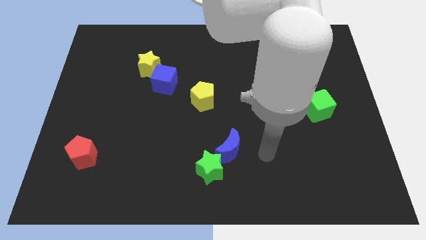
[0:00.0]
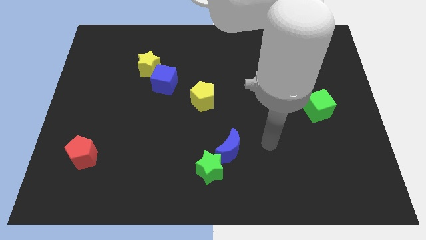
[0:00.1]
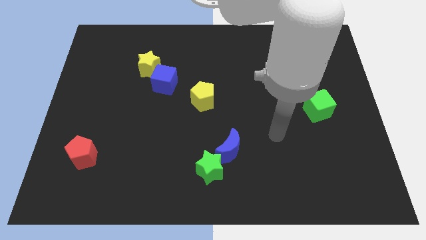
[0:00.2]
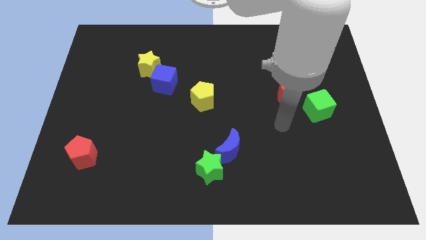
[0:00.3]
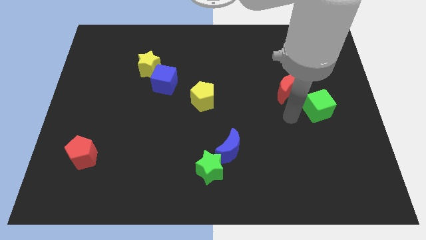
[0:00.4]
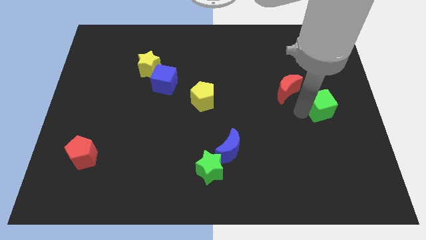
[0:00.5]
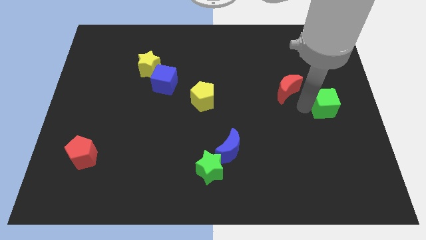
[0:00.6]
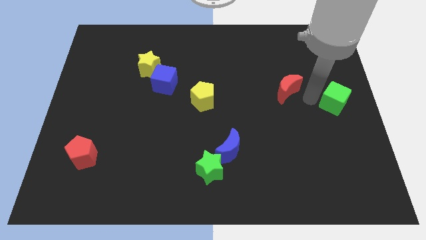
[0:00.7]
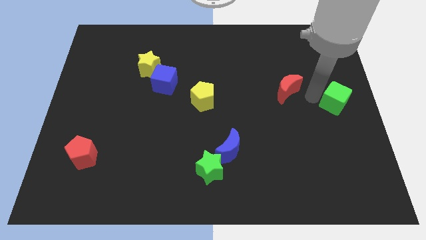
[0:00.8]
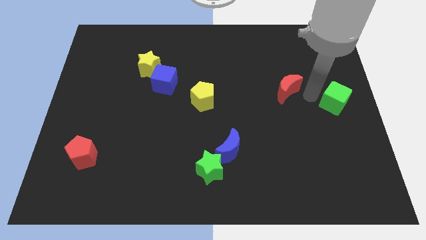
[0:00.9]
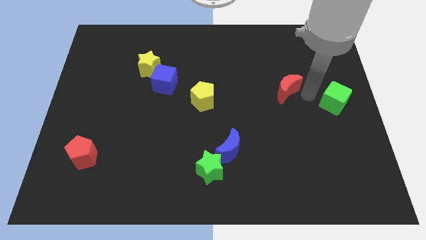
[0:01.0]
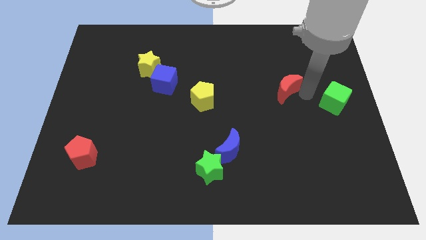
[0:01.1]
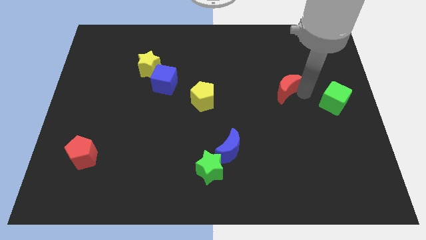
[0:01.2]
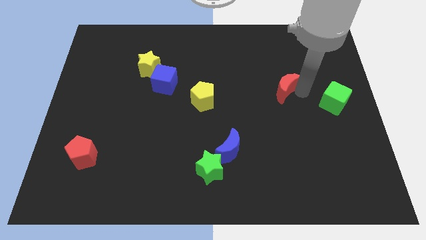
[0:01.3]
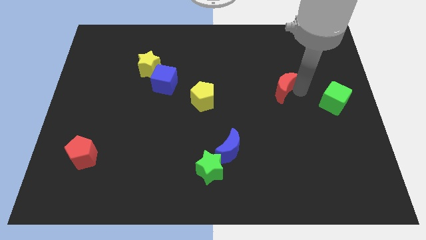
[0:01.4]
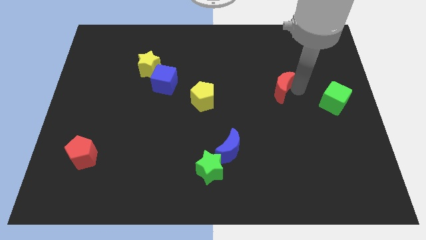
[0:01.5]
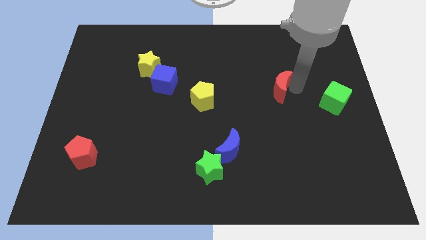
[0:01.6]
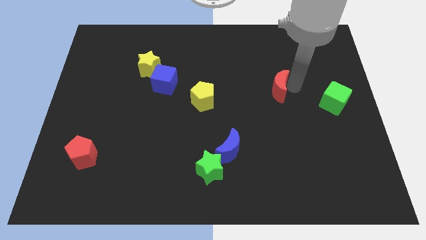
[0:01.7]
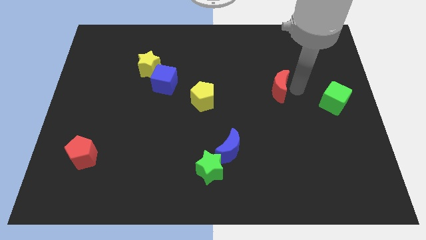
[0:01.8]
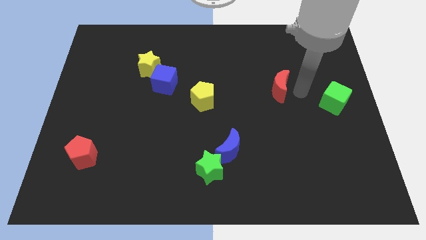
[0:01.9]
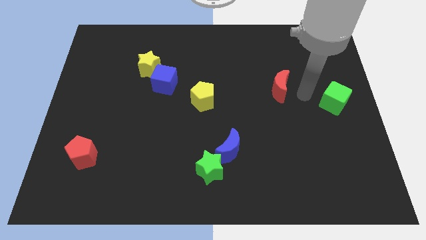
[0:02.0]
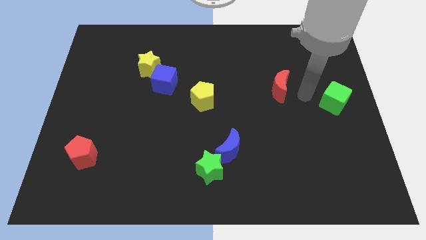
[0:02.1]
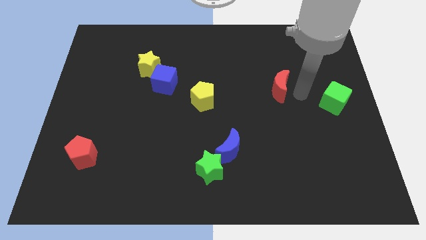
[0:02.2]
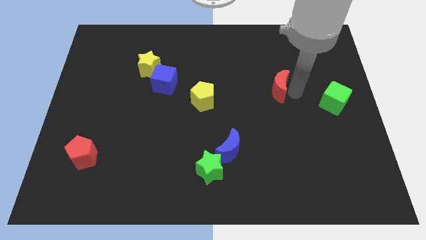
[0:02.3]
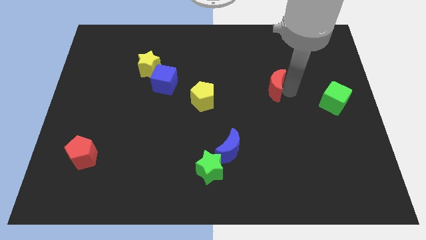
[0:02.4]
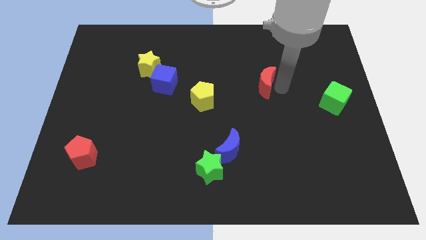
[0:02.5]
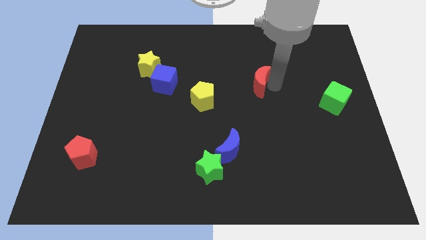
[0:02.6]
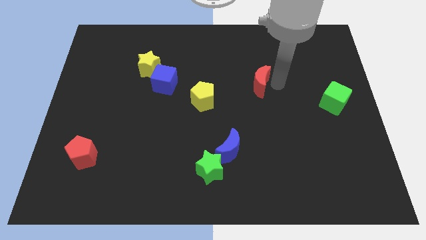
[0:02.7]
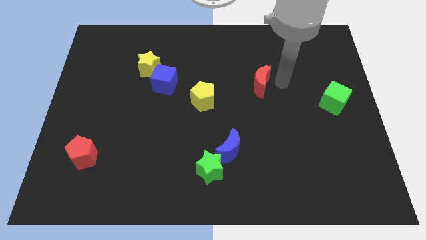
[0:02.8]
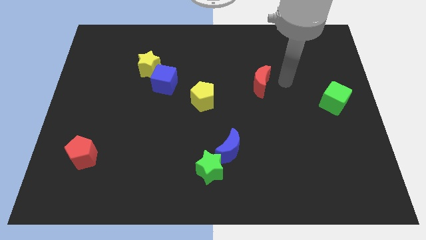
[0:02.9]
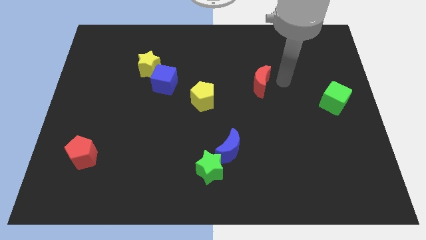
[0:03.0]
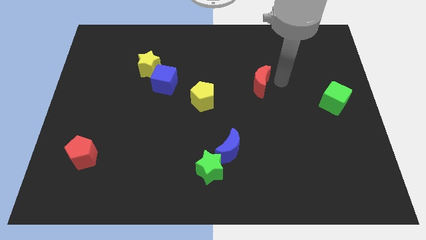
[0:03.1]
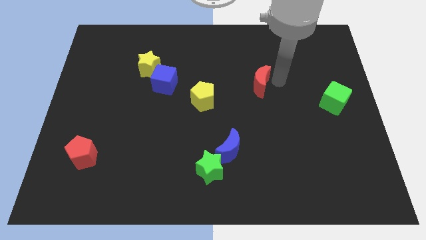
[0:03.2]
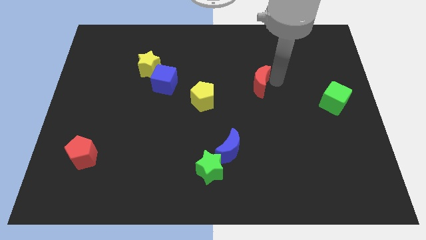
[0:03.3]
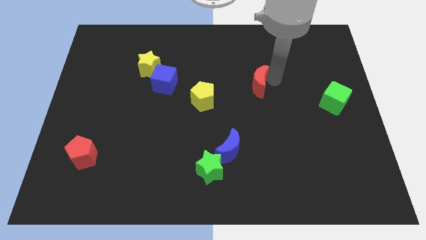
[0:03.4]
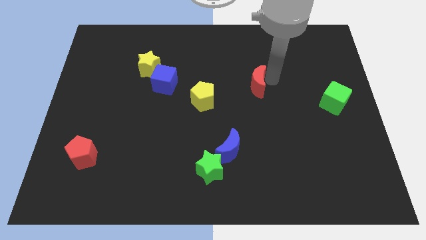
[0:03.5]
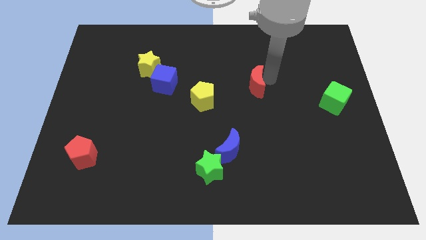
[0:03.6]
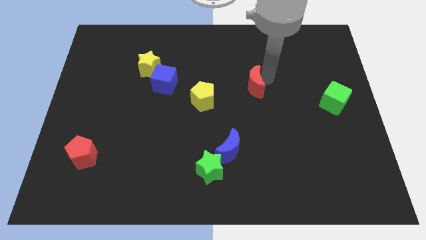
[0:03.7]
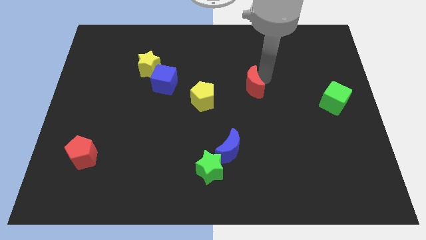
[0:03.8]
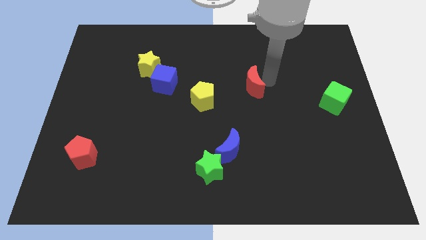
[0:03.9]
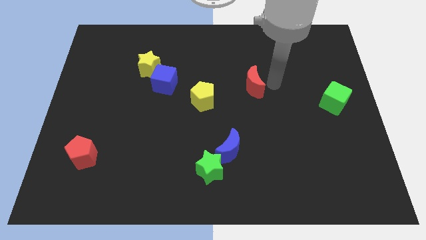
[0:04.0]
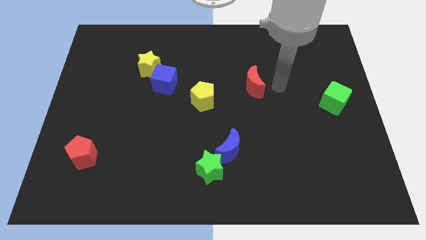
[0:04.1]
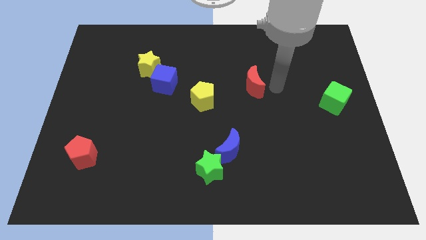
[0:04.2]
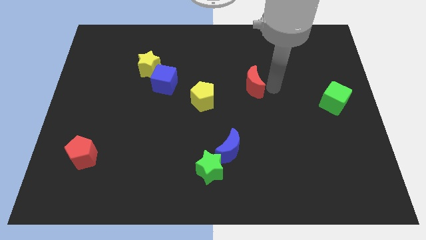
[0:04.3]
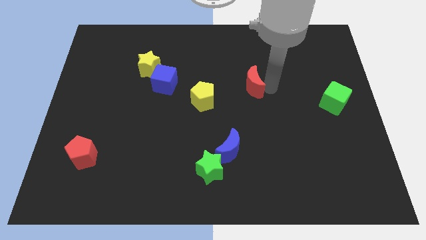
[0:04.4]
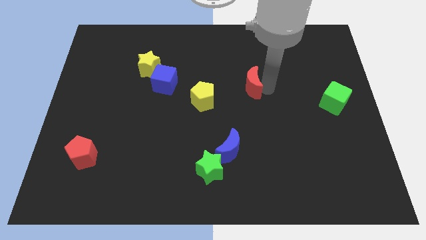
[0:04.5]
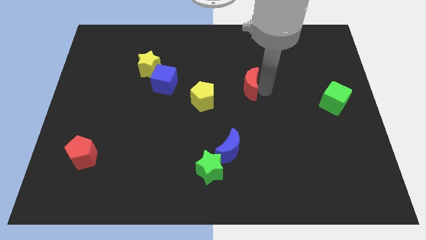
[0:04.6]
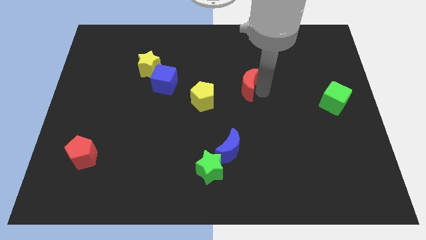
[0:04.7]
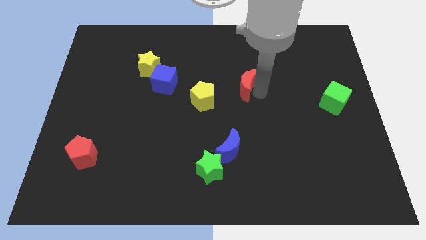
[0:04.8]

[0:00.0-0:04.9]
put the red moon diagonally up and to the right of the yellow pentagon

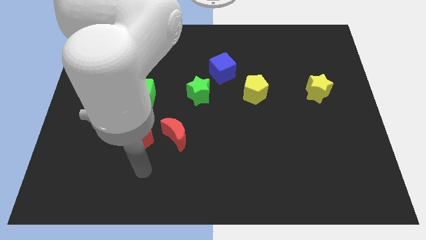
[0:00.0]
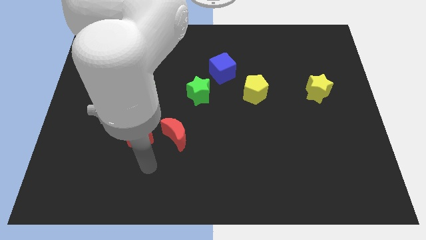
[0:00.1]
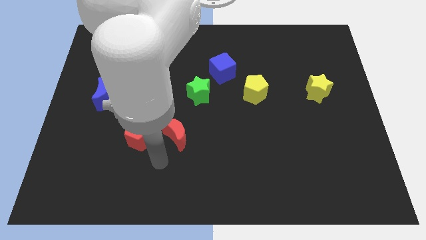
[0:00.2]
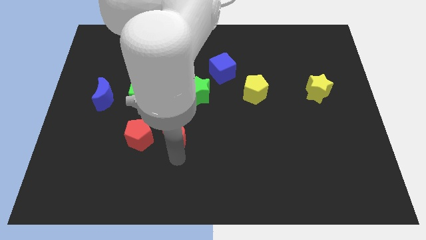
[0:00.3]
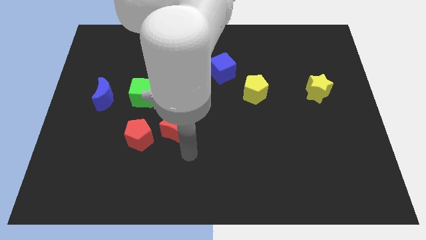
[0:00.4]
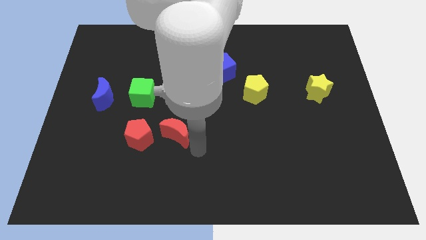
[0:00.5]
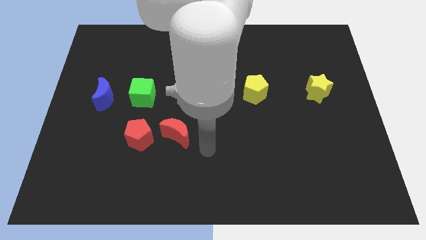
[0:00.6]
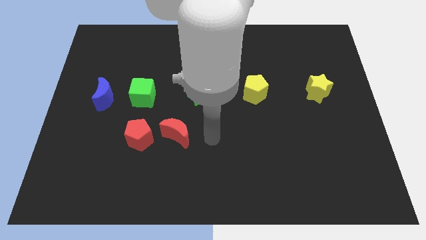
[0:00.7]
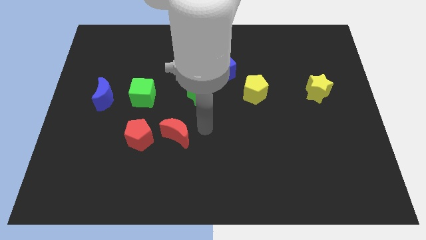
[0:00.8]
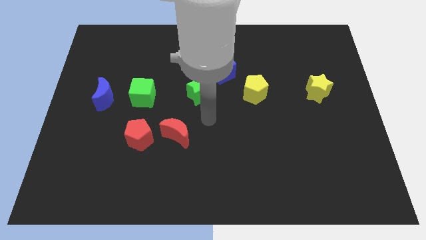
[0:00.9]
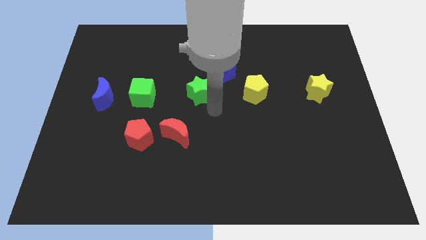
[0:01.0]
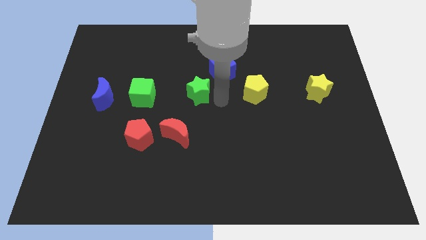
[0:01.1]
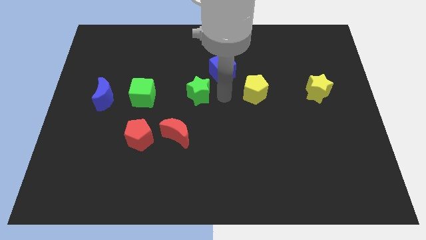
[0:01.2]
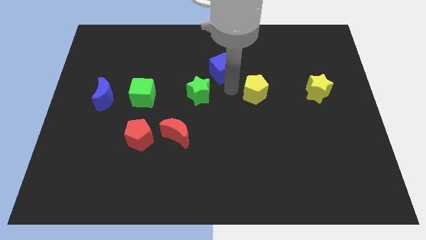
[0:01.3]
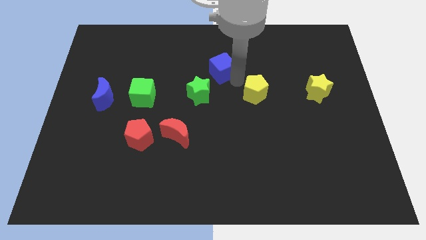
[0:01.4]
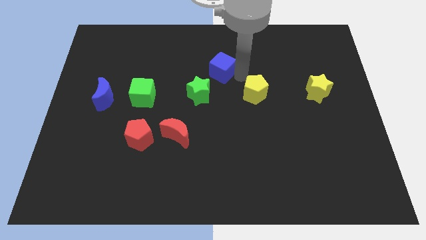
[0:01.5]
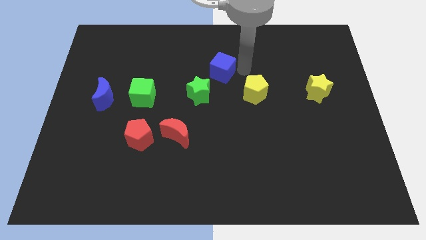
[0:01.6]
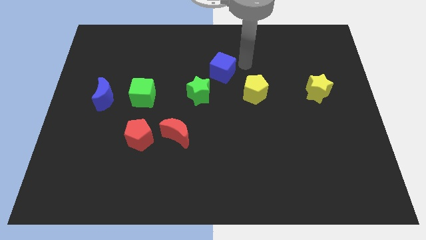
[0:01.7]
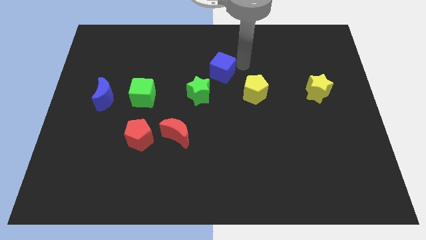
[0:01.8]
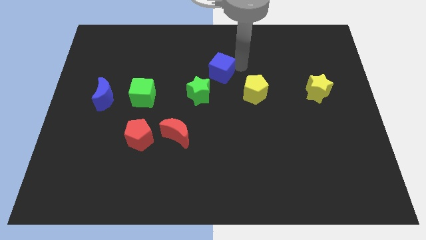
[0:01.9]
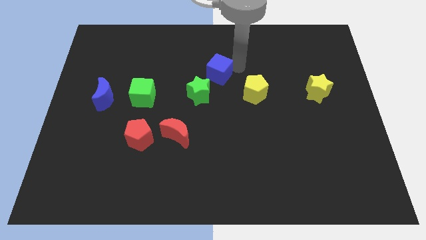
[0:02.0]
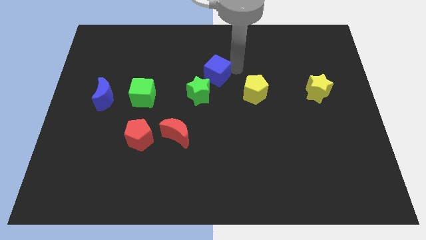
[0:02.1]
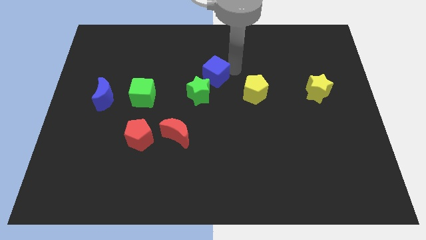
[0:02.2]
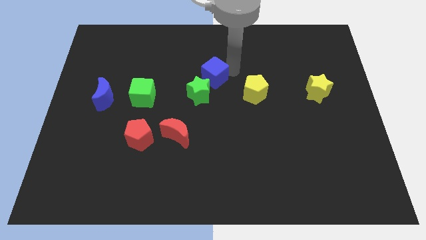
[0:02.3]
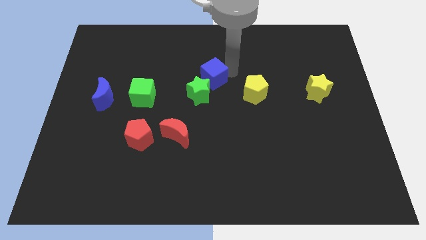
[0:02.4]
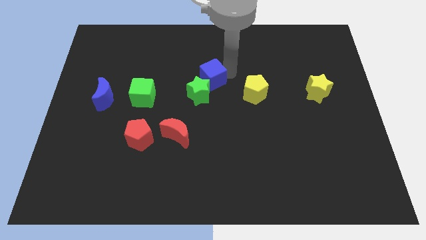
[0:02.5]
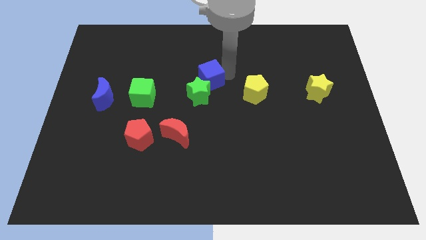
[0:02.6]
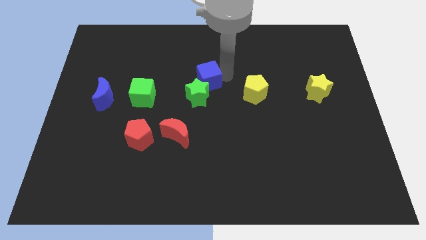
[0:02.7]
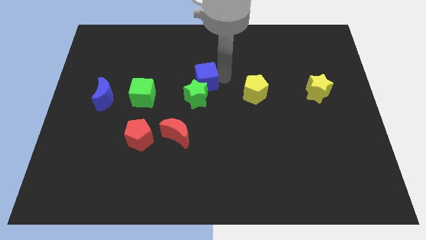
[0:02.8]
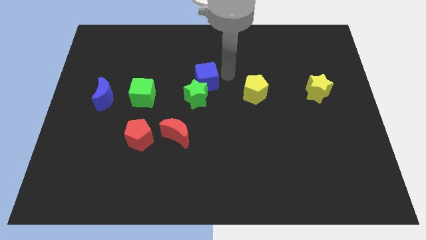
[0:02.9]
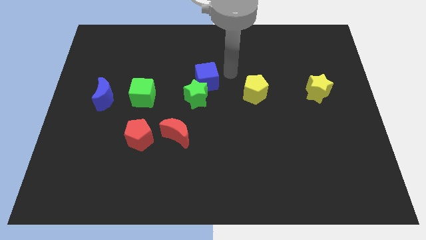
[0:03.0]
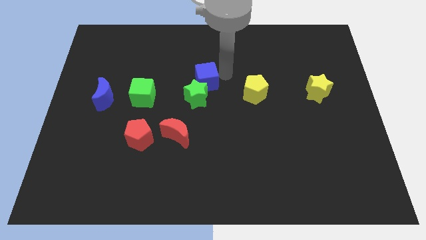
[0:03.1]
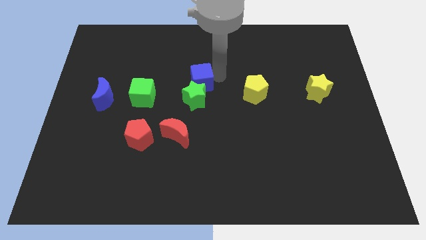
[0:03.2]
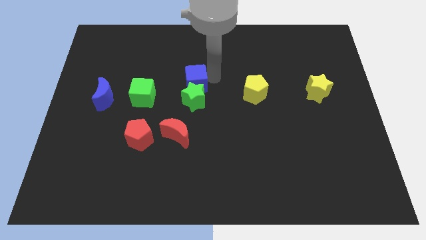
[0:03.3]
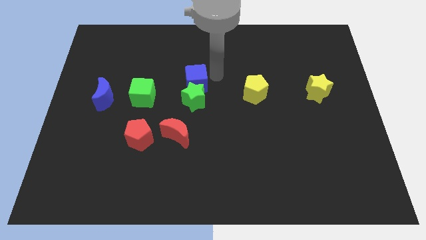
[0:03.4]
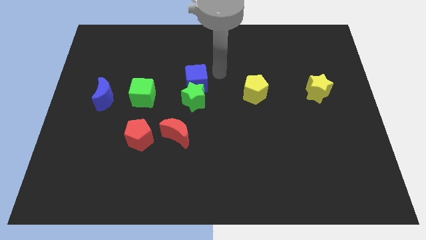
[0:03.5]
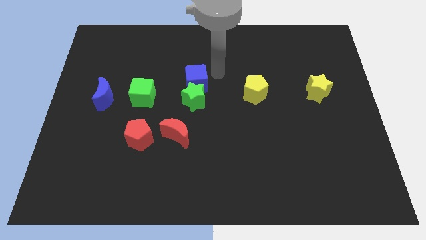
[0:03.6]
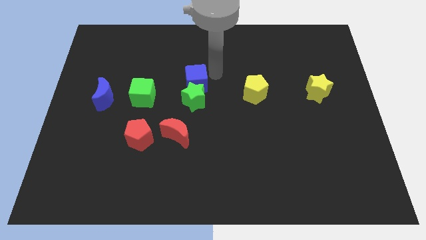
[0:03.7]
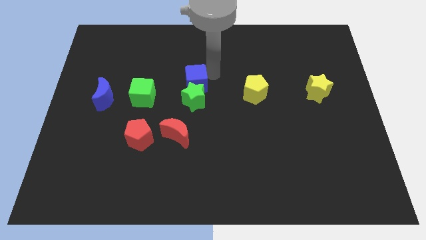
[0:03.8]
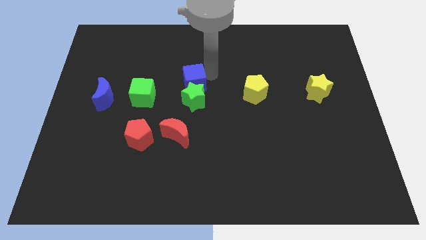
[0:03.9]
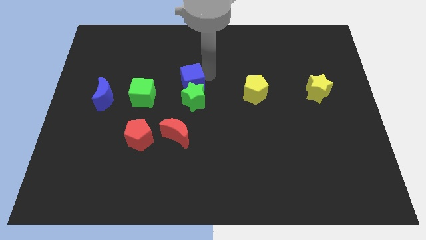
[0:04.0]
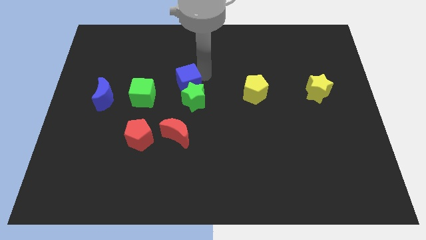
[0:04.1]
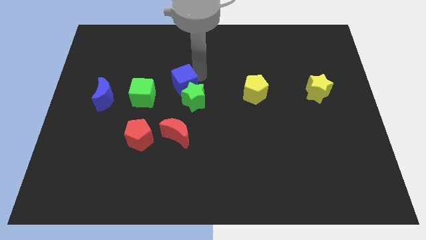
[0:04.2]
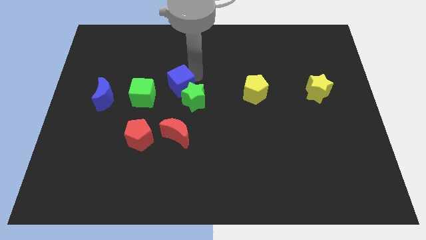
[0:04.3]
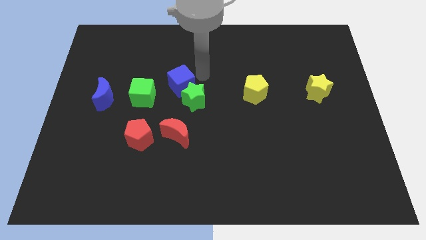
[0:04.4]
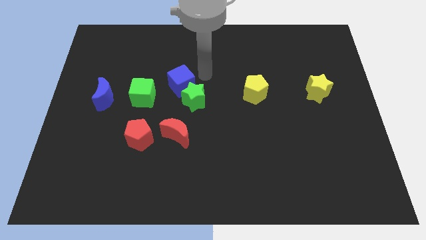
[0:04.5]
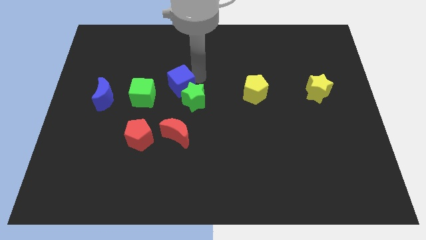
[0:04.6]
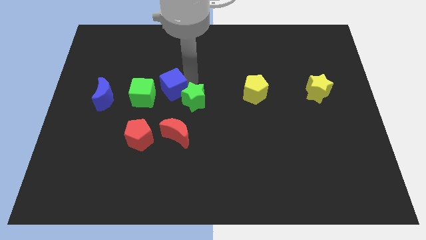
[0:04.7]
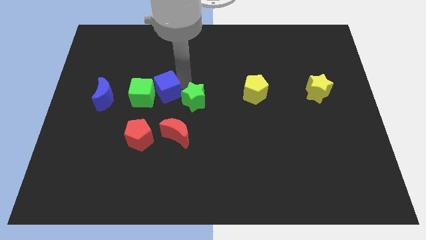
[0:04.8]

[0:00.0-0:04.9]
move the blue cube to the right of the blue moon
